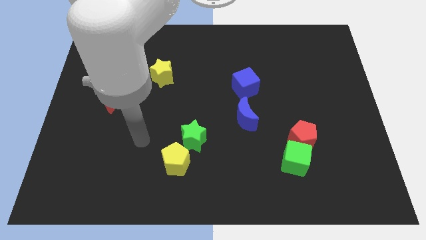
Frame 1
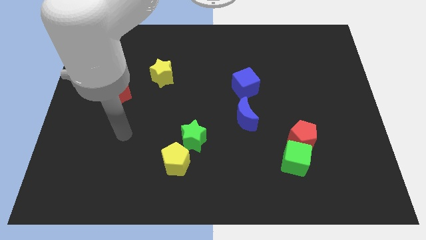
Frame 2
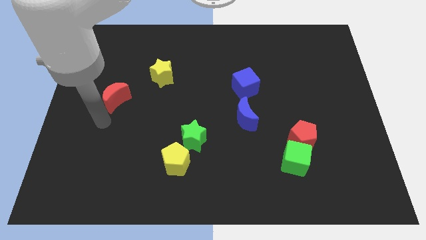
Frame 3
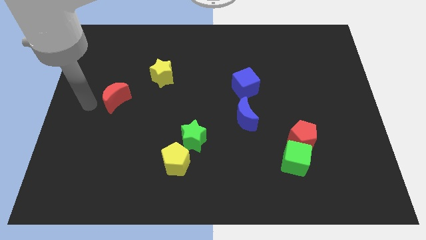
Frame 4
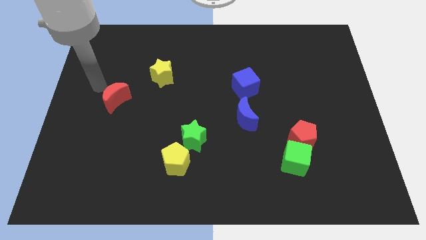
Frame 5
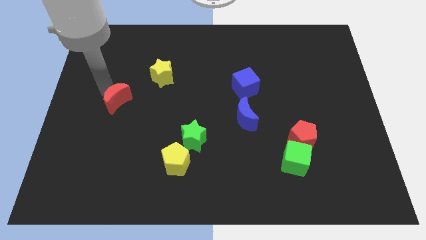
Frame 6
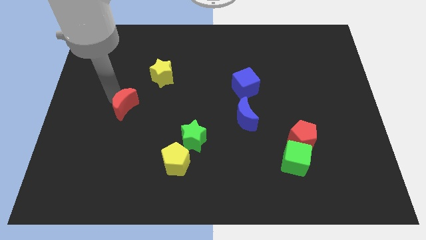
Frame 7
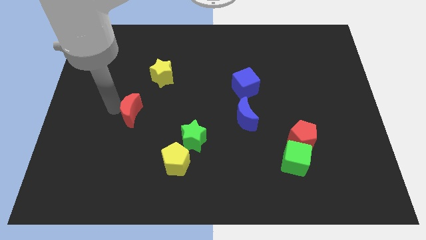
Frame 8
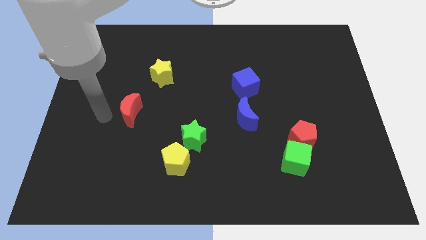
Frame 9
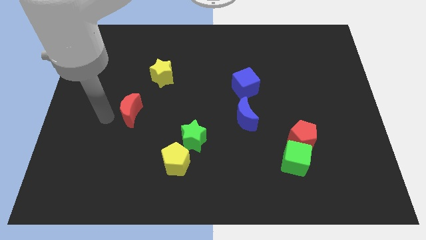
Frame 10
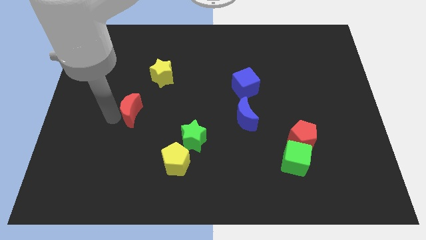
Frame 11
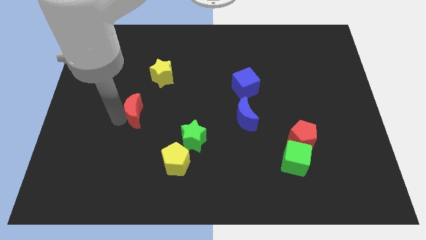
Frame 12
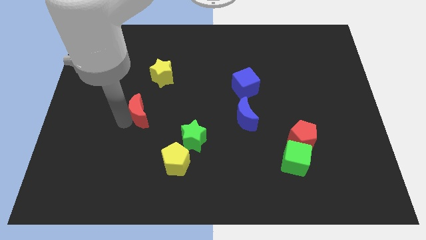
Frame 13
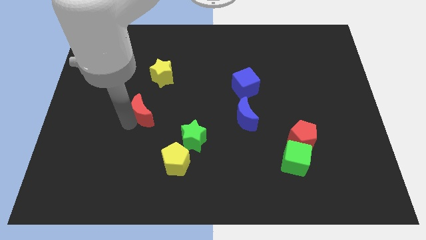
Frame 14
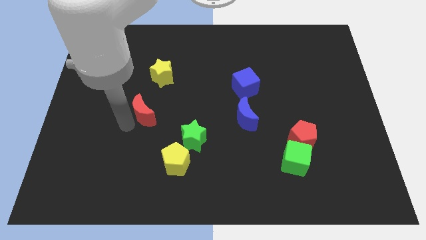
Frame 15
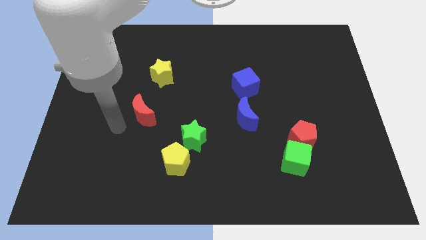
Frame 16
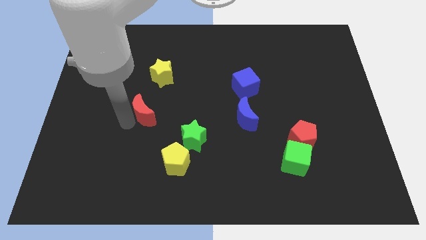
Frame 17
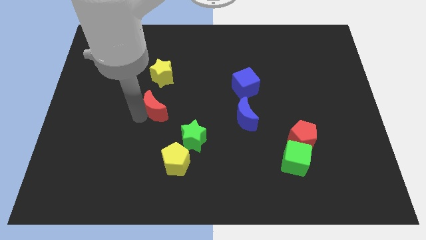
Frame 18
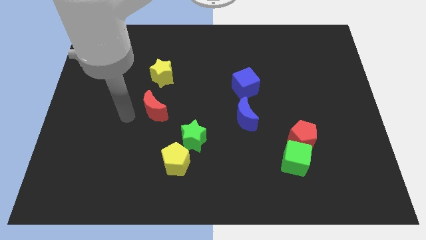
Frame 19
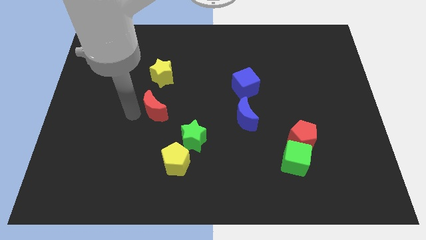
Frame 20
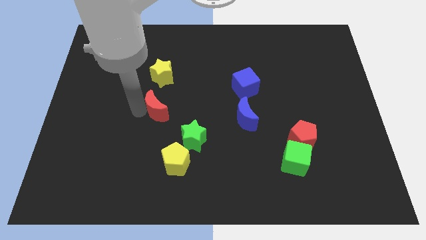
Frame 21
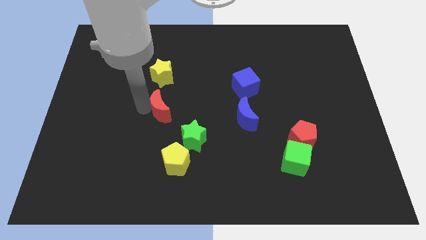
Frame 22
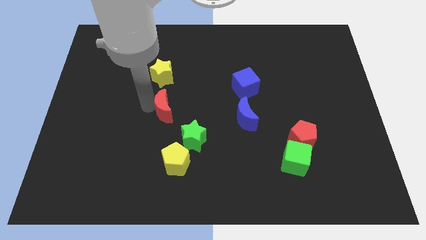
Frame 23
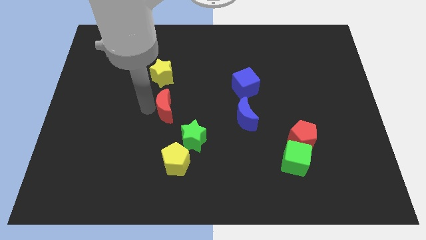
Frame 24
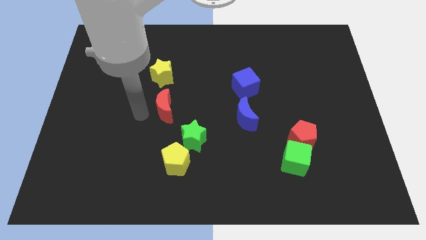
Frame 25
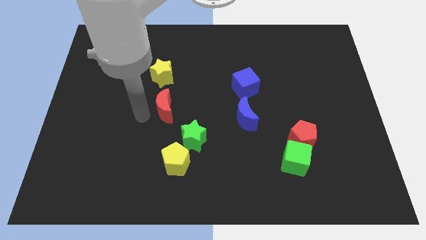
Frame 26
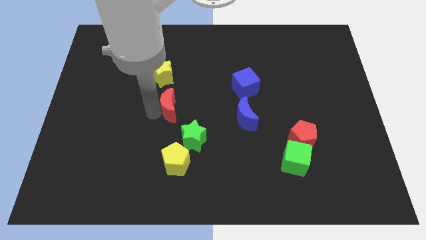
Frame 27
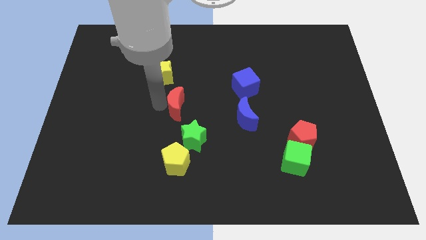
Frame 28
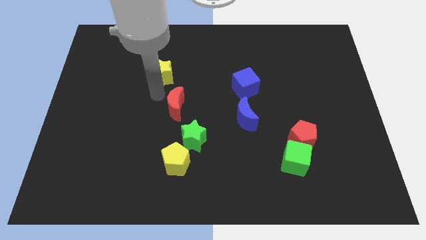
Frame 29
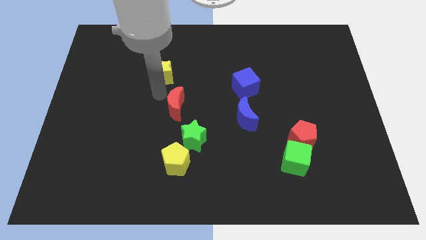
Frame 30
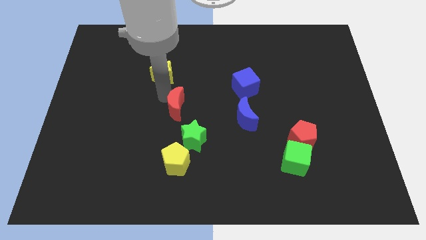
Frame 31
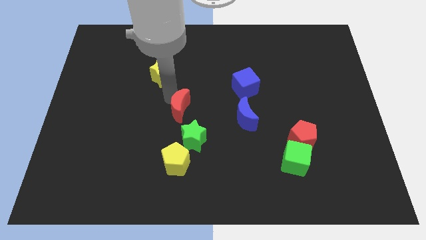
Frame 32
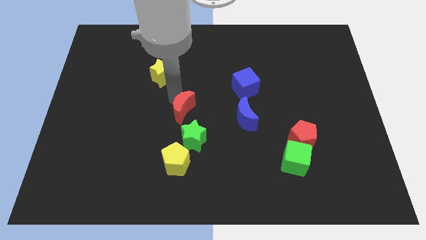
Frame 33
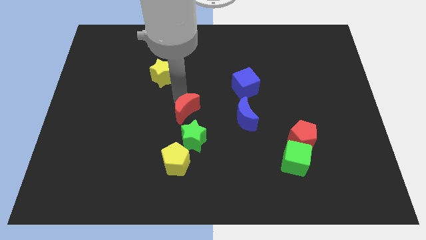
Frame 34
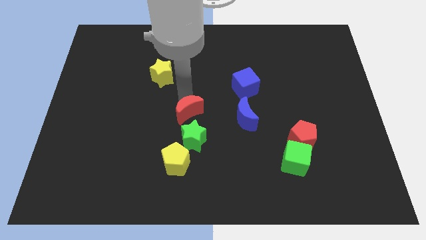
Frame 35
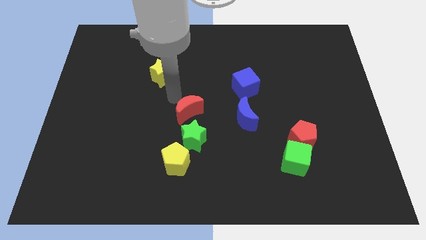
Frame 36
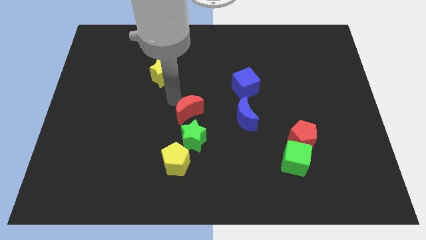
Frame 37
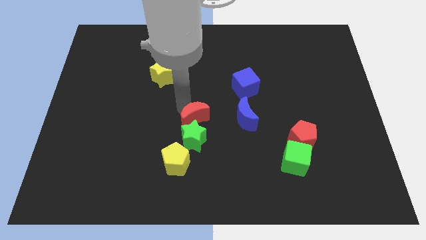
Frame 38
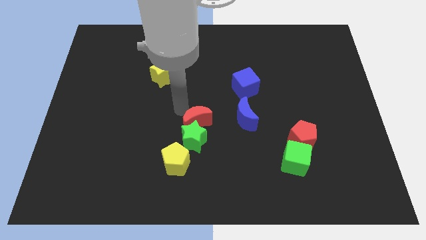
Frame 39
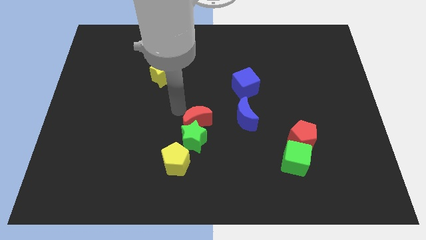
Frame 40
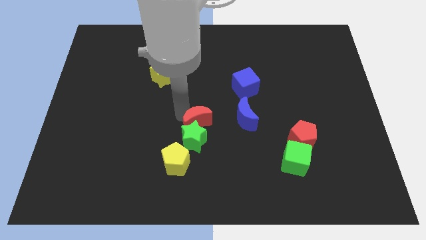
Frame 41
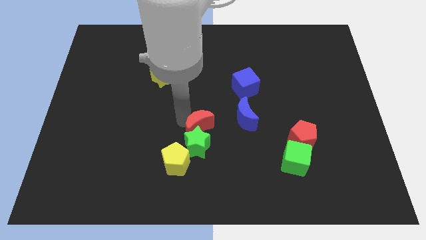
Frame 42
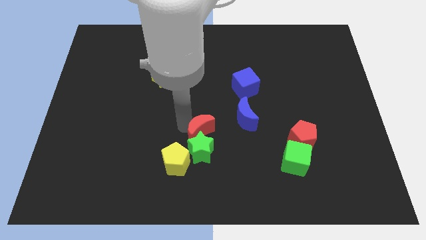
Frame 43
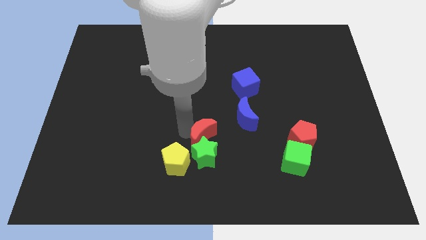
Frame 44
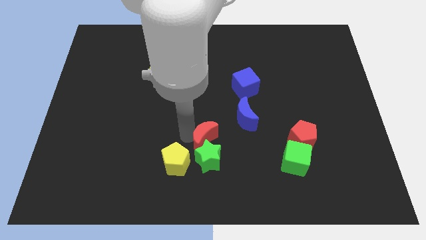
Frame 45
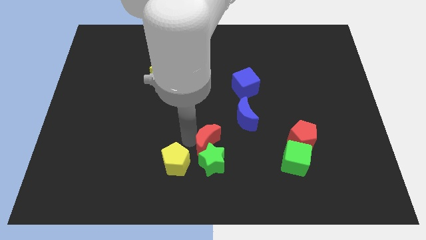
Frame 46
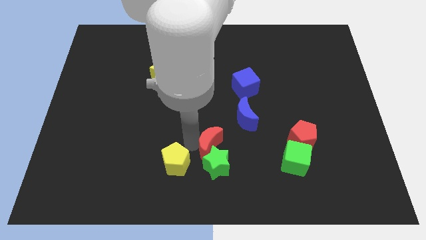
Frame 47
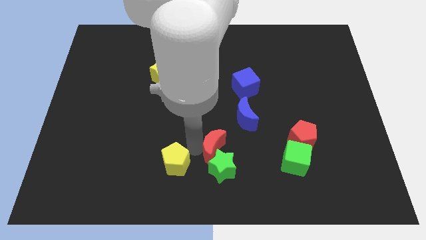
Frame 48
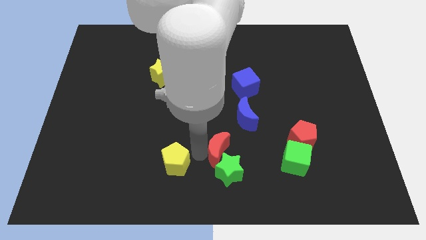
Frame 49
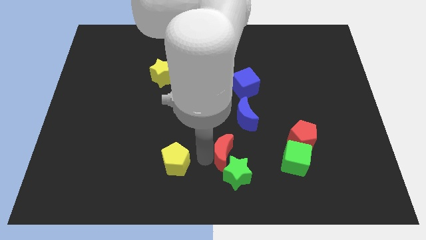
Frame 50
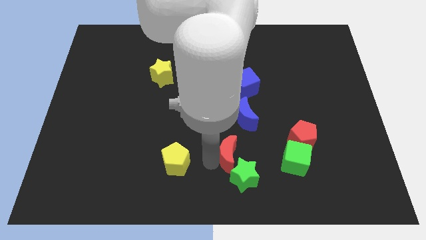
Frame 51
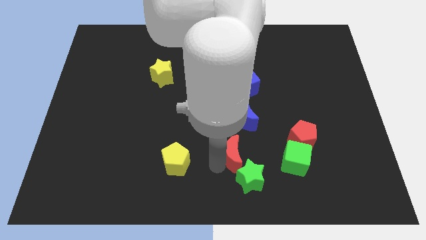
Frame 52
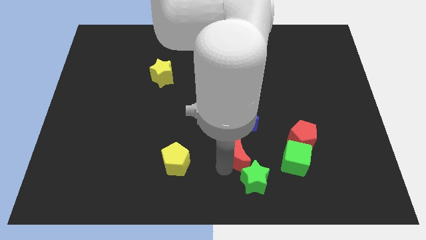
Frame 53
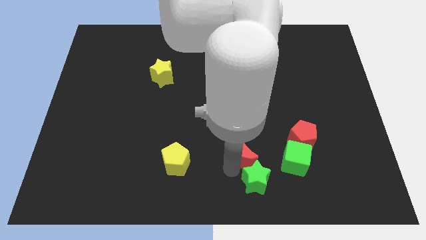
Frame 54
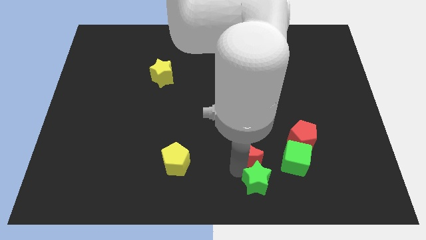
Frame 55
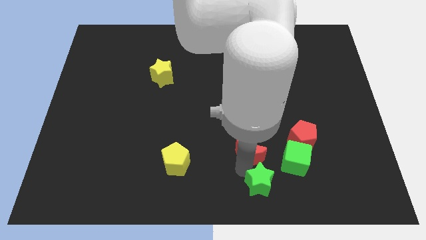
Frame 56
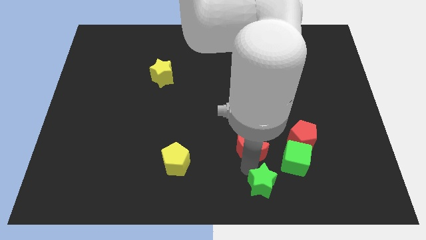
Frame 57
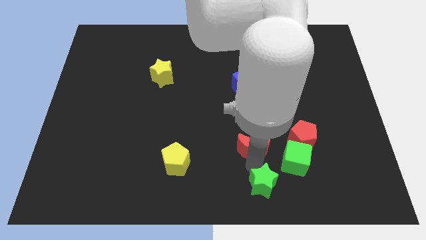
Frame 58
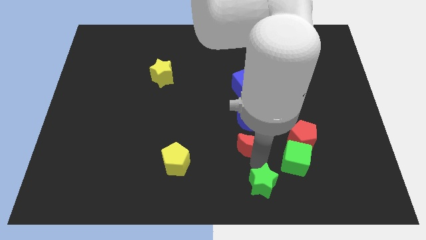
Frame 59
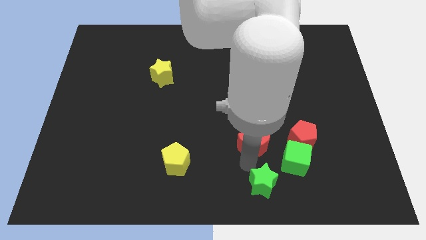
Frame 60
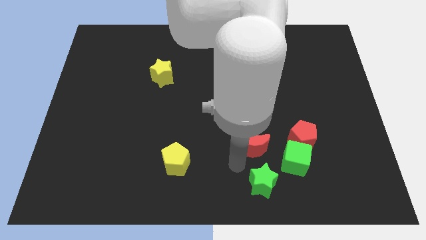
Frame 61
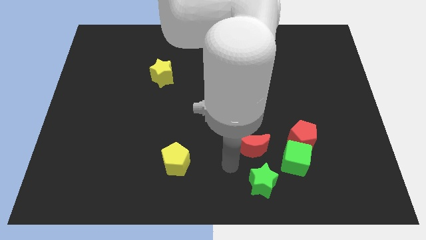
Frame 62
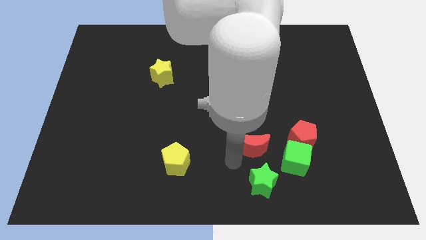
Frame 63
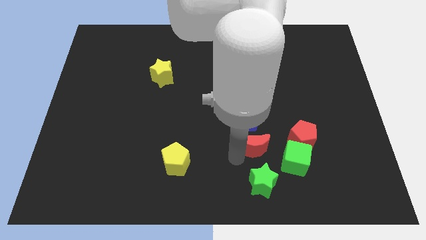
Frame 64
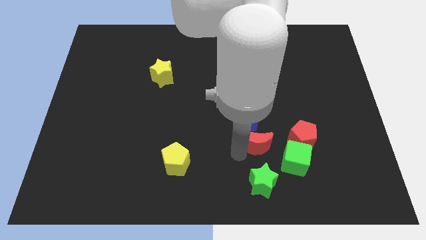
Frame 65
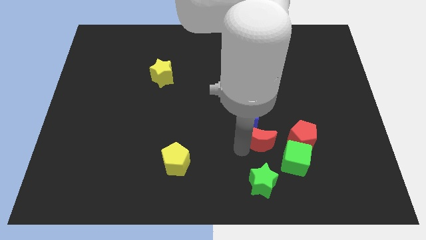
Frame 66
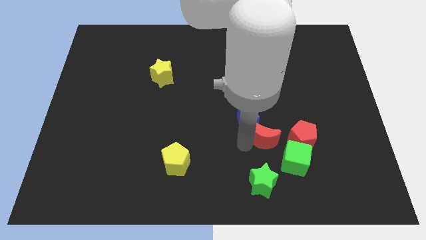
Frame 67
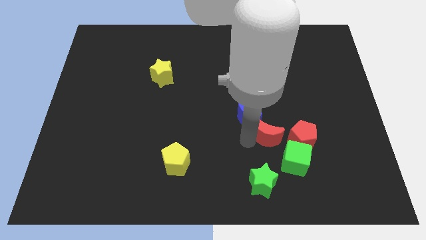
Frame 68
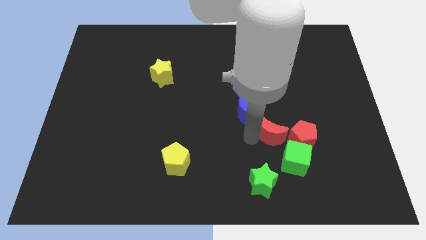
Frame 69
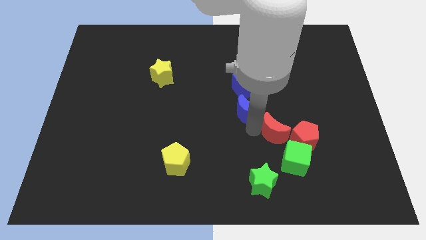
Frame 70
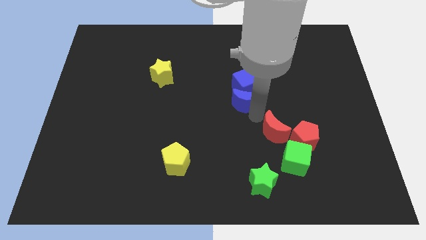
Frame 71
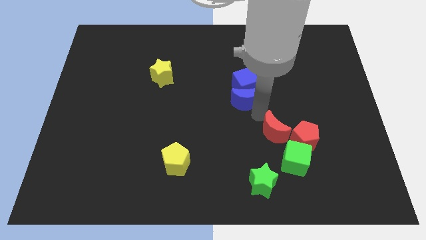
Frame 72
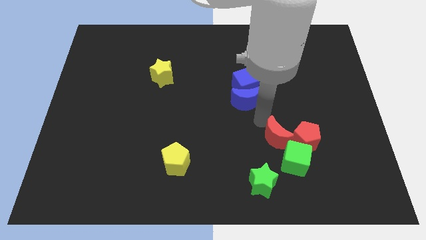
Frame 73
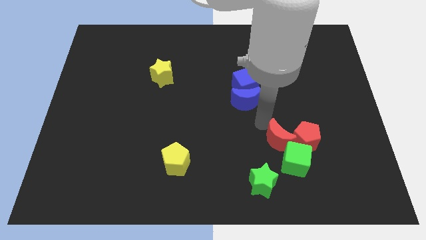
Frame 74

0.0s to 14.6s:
slide the red moon next to the green cube
